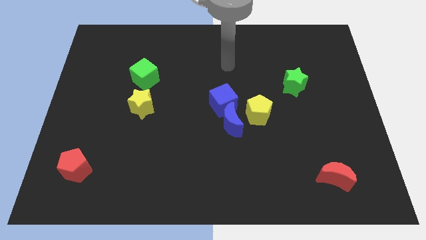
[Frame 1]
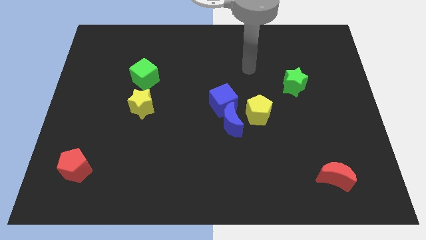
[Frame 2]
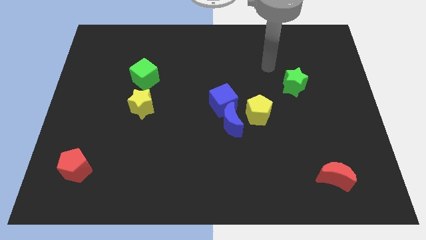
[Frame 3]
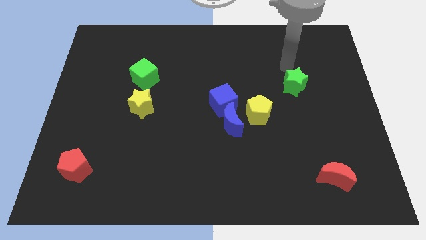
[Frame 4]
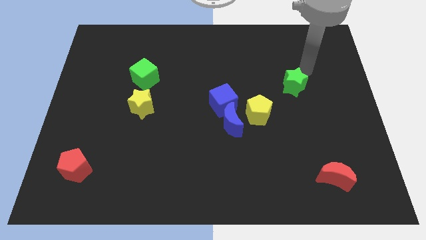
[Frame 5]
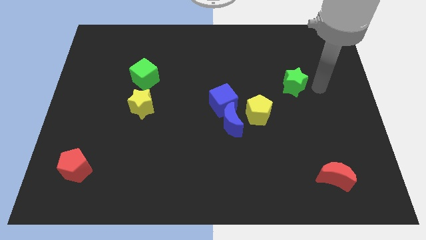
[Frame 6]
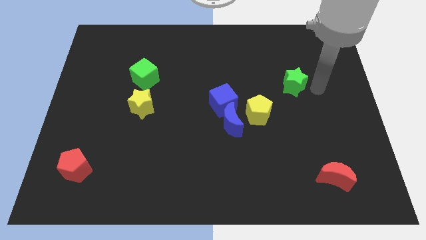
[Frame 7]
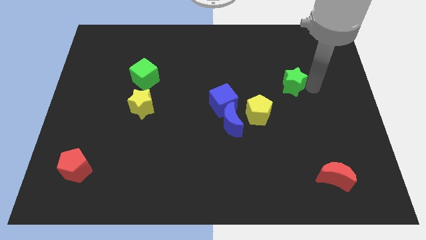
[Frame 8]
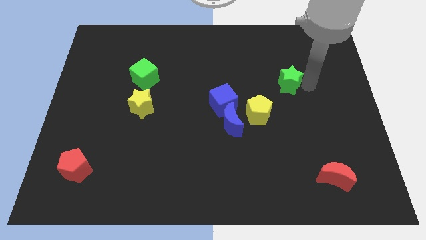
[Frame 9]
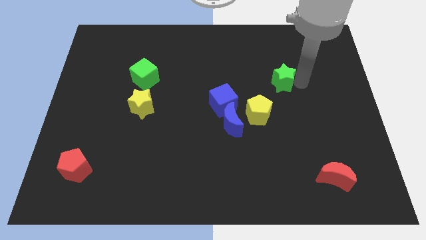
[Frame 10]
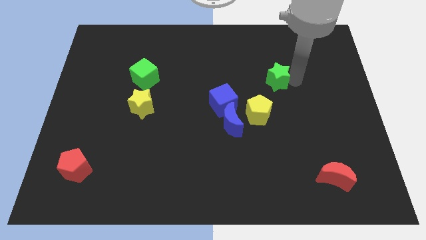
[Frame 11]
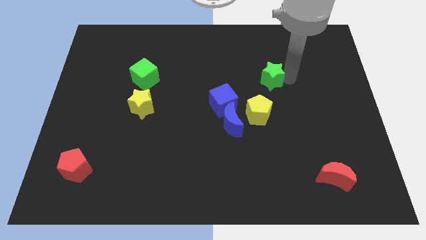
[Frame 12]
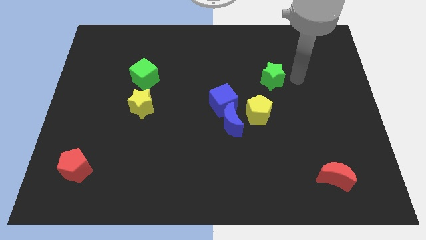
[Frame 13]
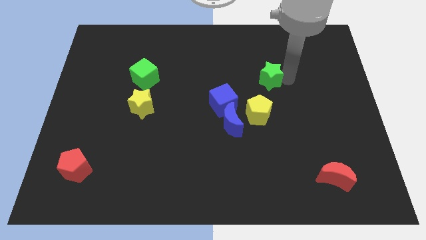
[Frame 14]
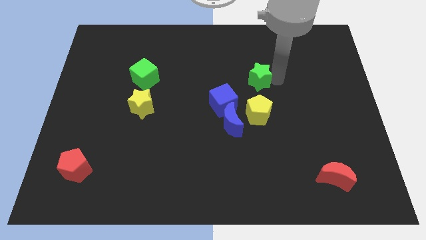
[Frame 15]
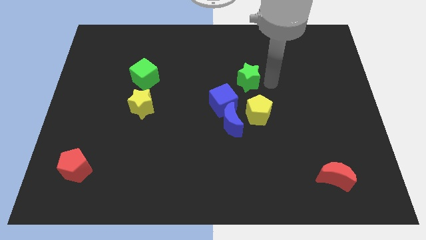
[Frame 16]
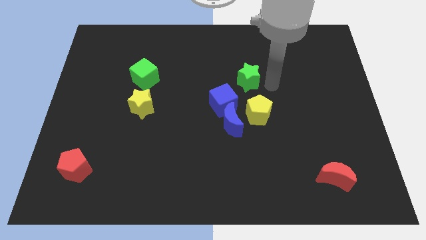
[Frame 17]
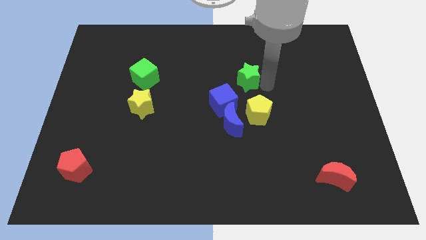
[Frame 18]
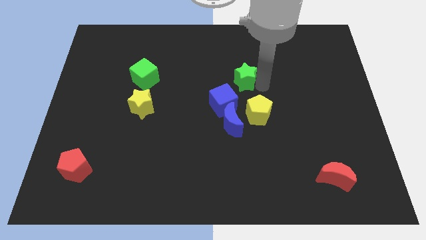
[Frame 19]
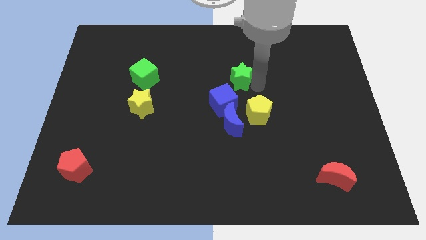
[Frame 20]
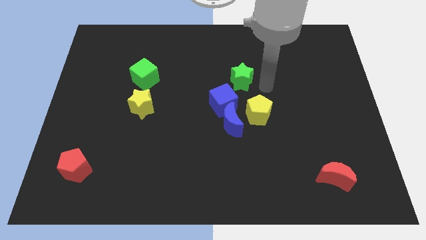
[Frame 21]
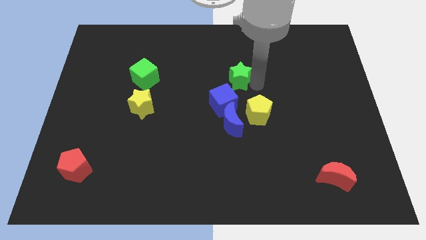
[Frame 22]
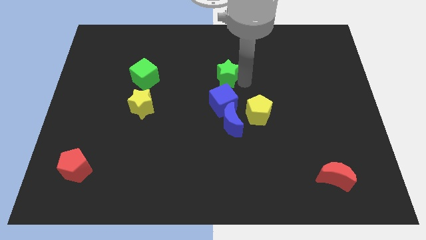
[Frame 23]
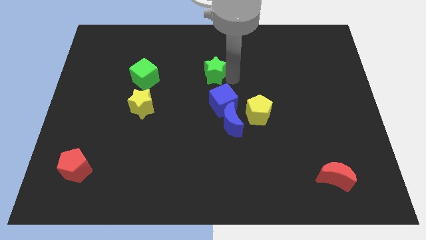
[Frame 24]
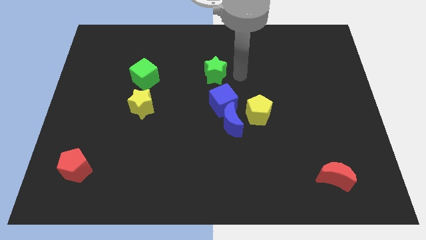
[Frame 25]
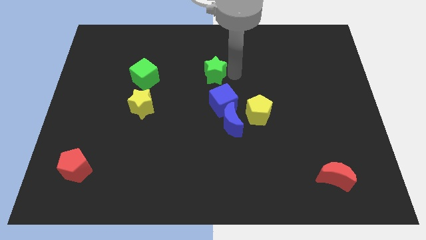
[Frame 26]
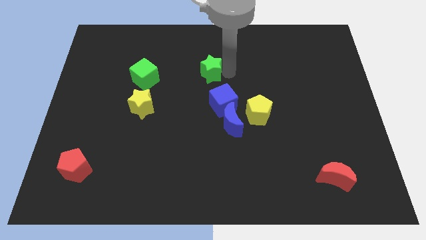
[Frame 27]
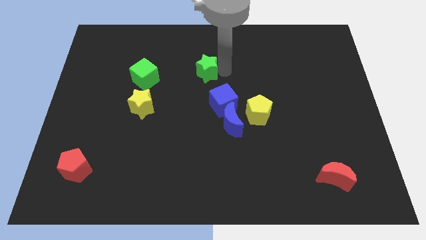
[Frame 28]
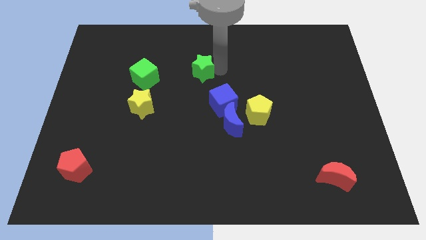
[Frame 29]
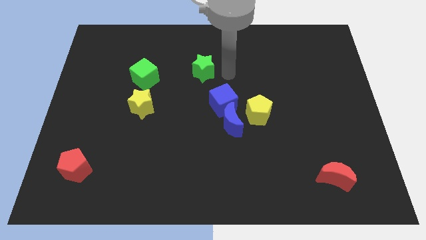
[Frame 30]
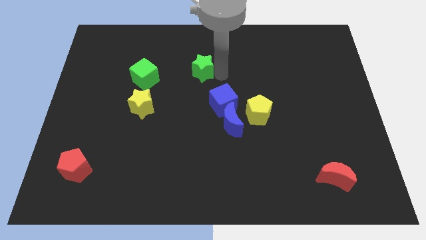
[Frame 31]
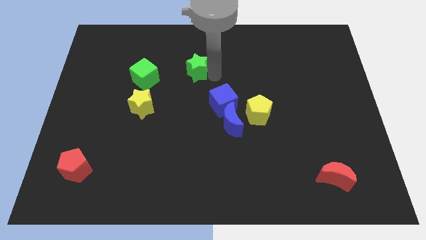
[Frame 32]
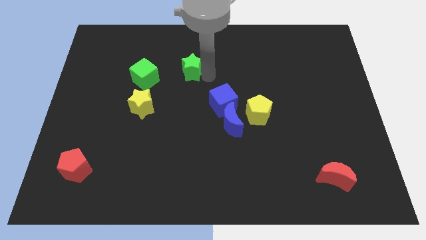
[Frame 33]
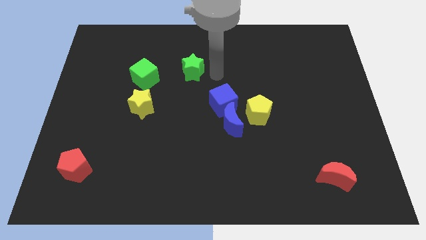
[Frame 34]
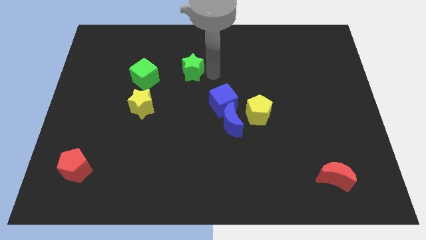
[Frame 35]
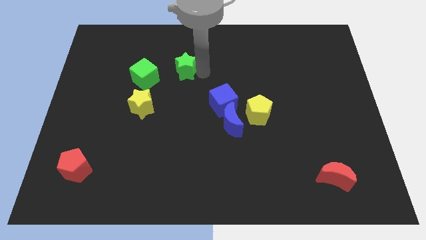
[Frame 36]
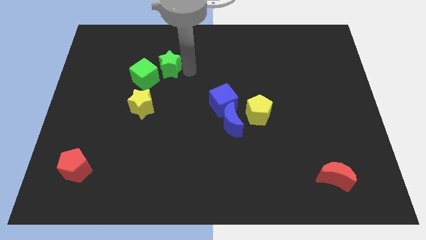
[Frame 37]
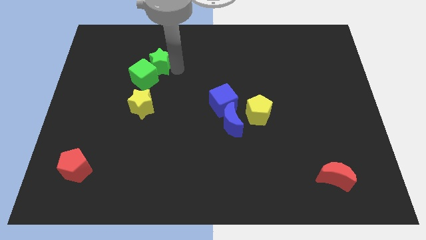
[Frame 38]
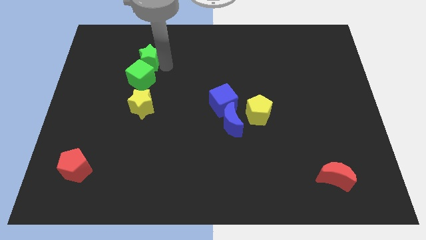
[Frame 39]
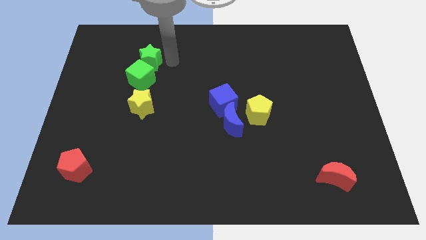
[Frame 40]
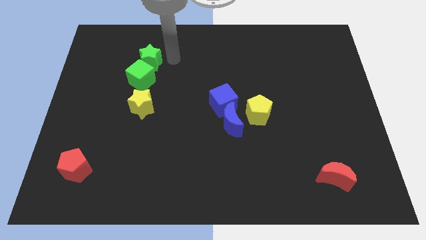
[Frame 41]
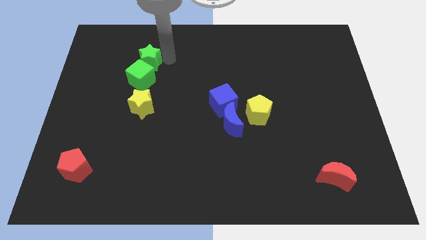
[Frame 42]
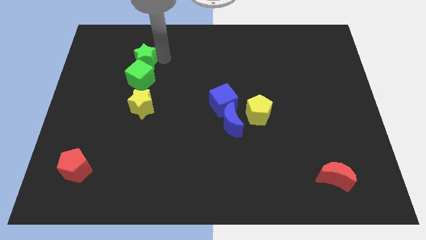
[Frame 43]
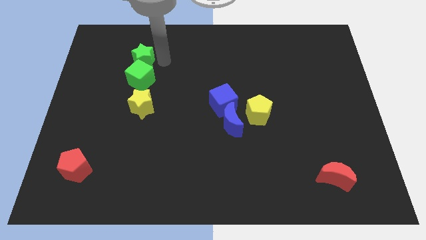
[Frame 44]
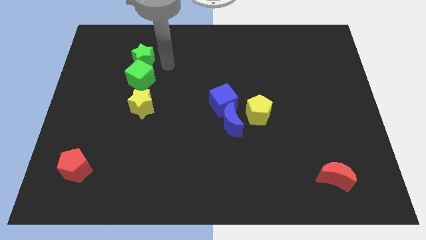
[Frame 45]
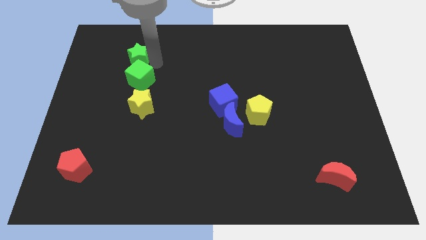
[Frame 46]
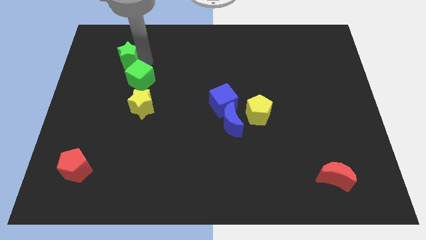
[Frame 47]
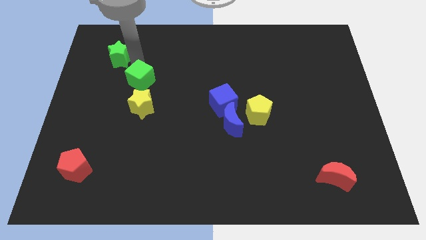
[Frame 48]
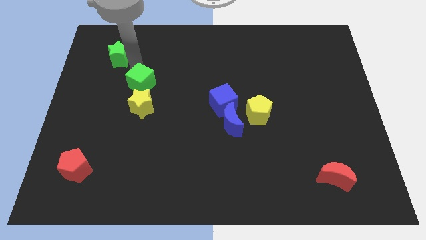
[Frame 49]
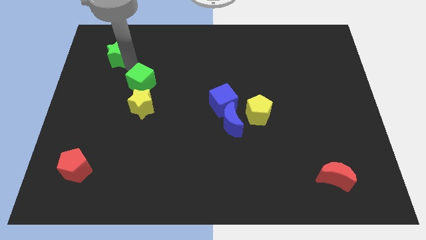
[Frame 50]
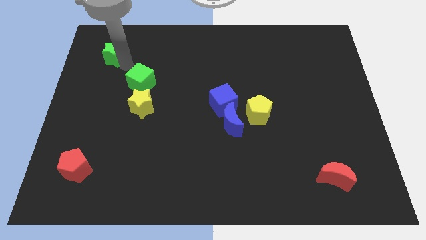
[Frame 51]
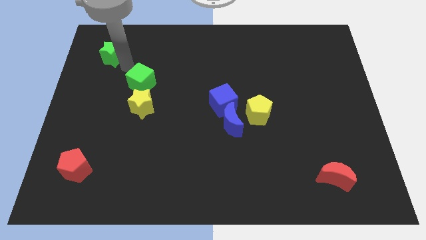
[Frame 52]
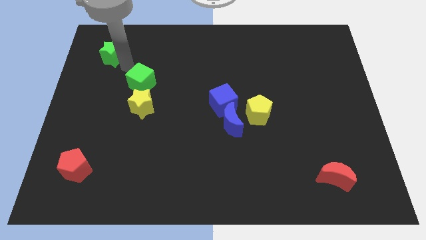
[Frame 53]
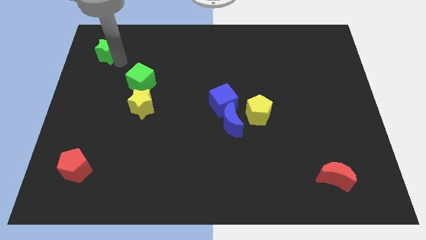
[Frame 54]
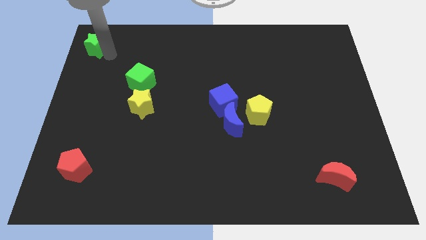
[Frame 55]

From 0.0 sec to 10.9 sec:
put the green star to the top left of the board

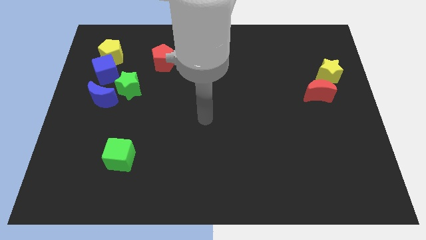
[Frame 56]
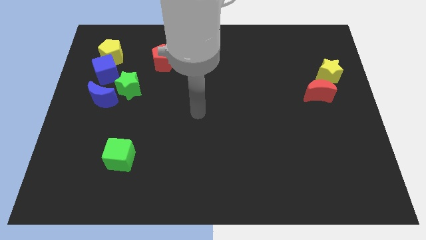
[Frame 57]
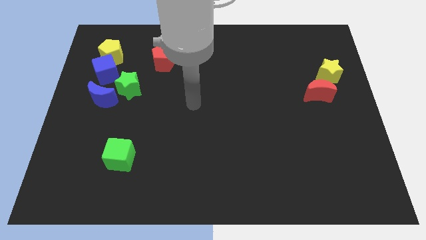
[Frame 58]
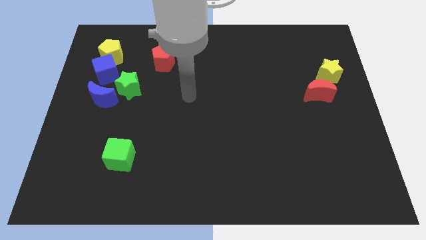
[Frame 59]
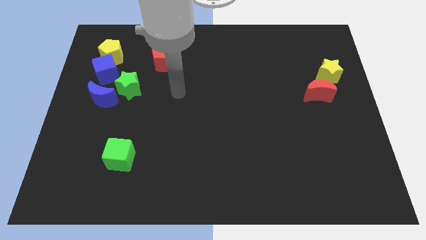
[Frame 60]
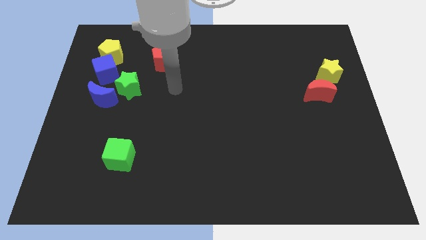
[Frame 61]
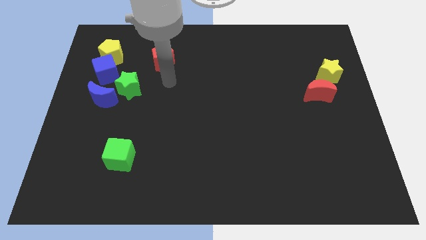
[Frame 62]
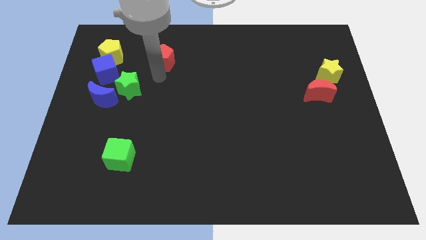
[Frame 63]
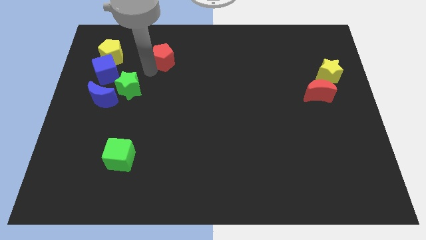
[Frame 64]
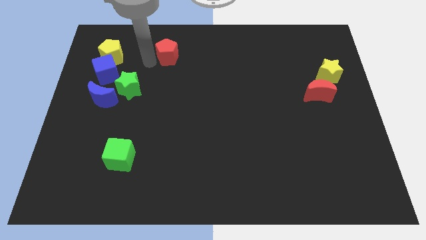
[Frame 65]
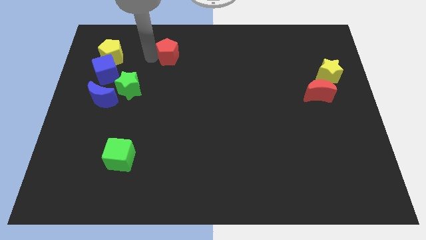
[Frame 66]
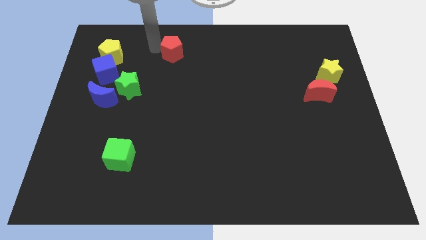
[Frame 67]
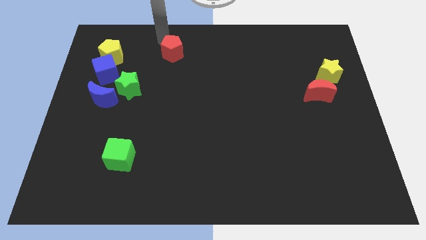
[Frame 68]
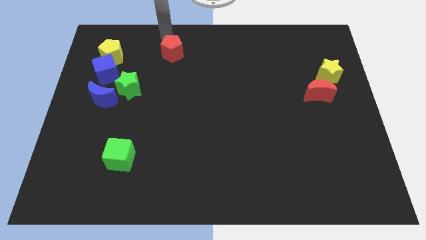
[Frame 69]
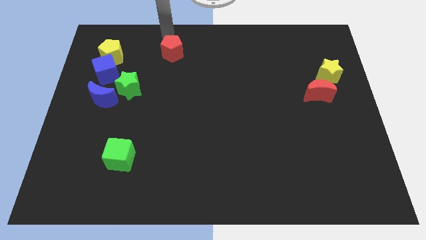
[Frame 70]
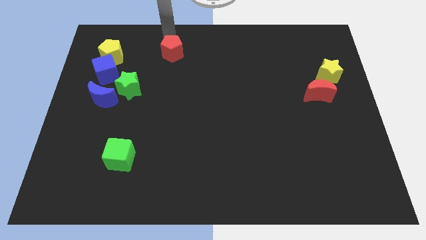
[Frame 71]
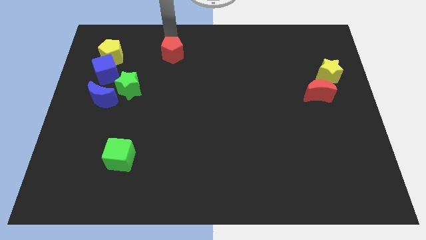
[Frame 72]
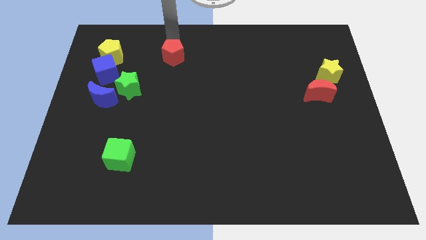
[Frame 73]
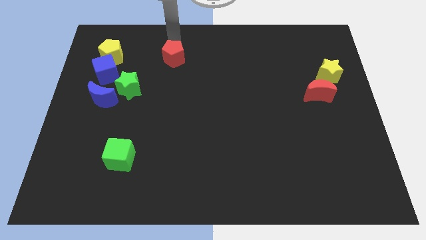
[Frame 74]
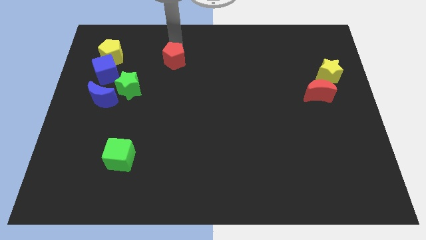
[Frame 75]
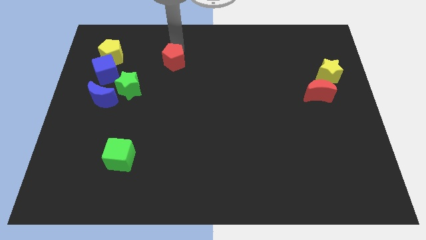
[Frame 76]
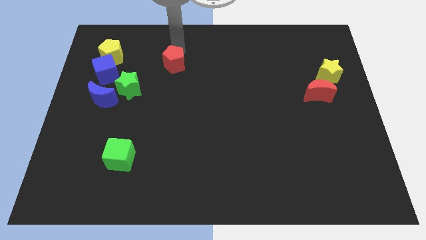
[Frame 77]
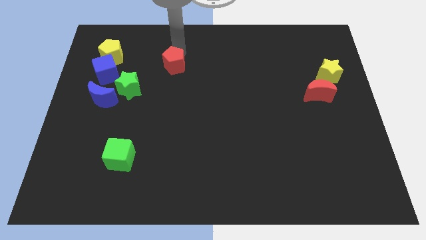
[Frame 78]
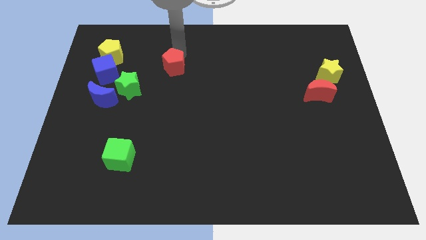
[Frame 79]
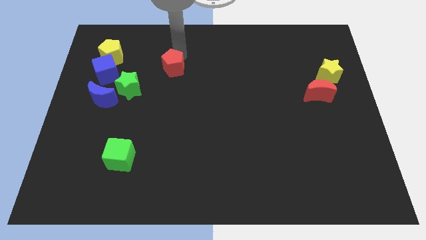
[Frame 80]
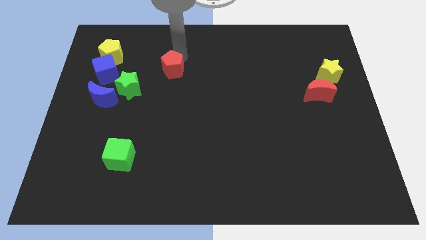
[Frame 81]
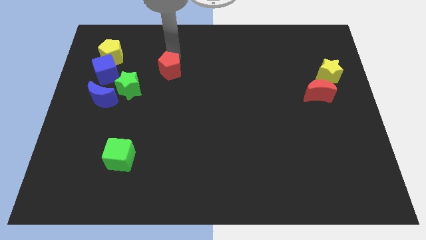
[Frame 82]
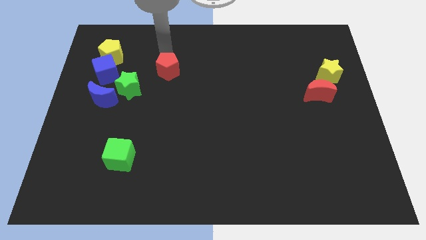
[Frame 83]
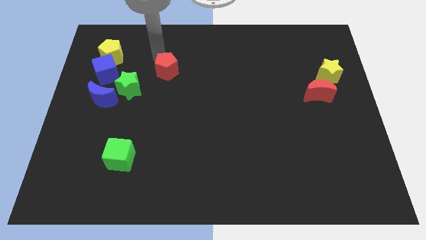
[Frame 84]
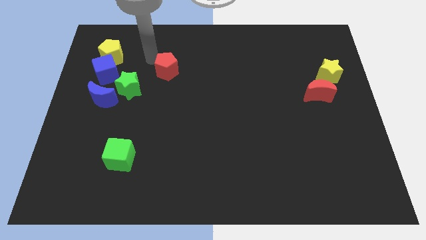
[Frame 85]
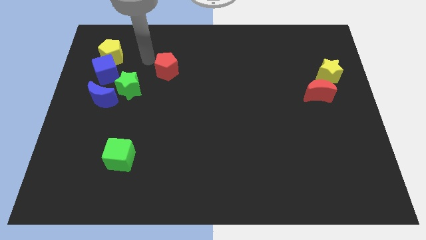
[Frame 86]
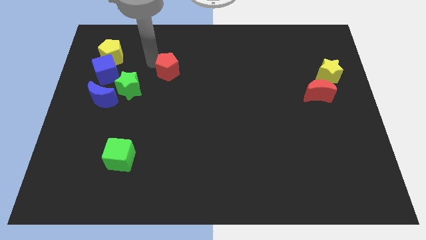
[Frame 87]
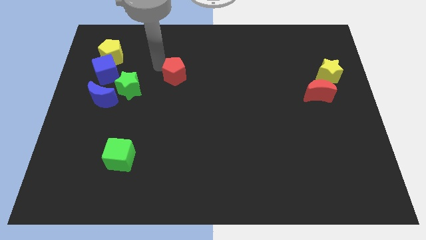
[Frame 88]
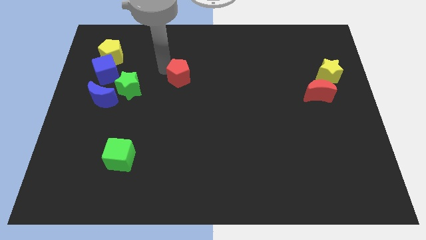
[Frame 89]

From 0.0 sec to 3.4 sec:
slide the red pentagon to the center
